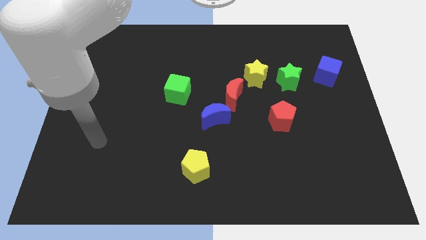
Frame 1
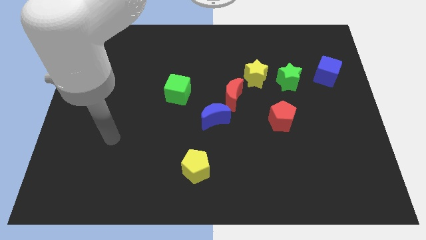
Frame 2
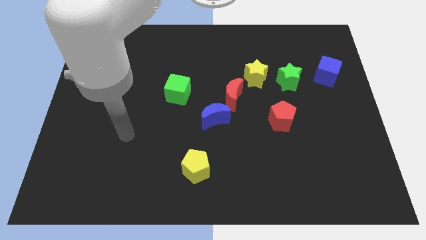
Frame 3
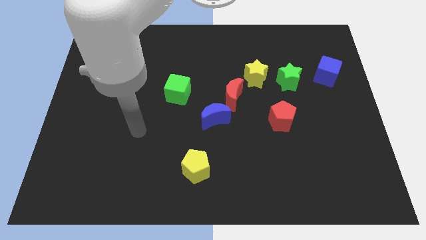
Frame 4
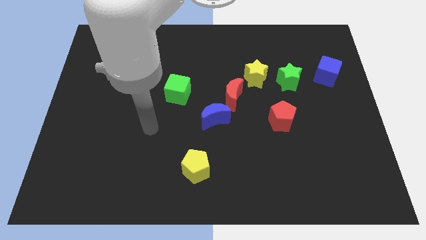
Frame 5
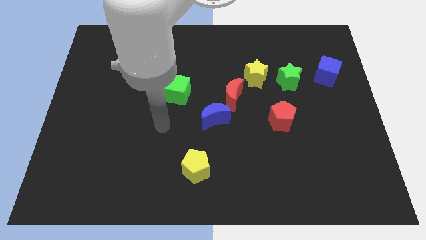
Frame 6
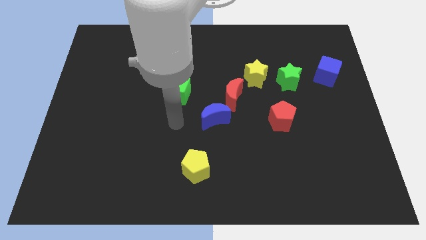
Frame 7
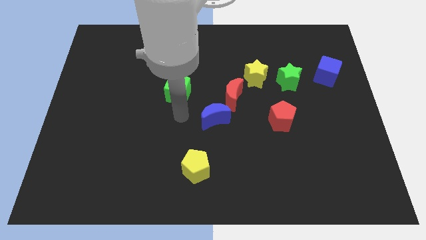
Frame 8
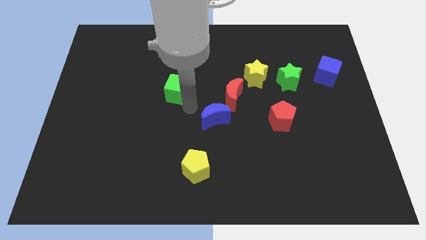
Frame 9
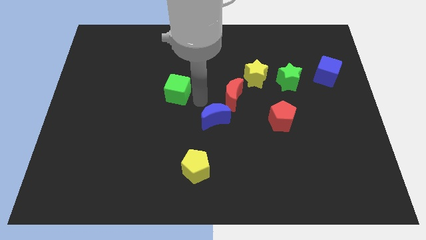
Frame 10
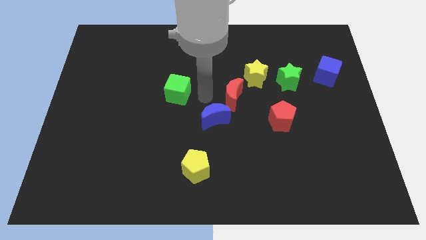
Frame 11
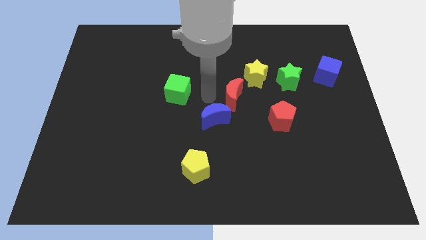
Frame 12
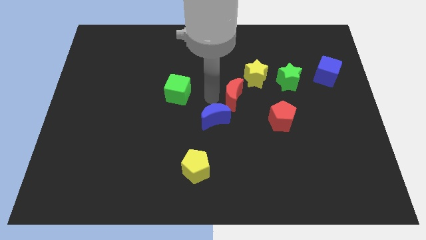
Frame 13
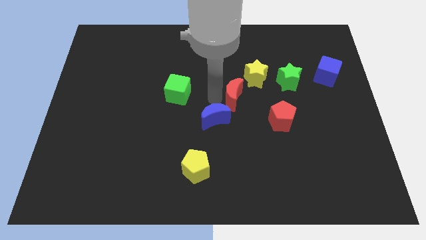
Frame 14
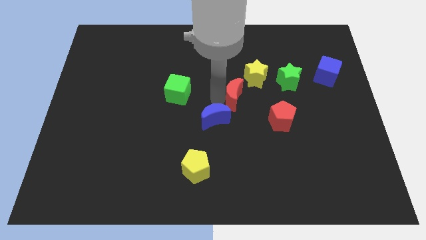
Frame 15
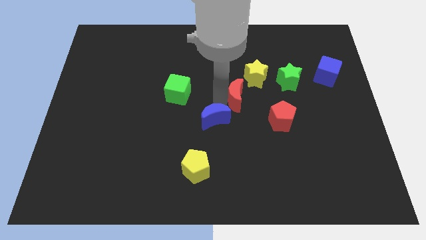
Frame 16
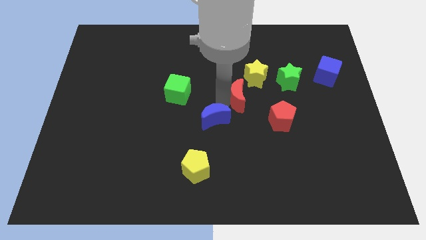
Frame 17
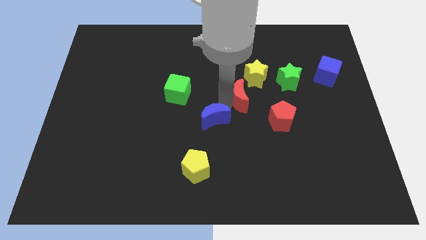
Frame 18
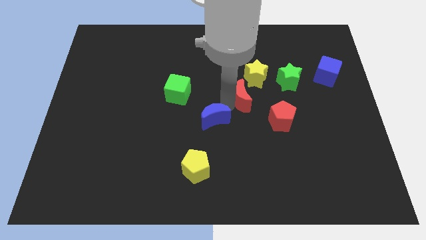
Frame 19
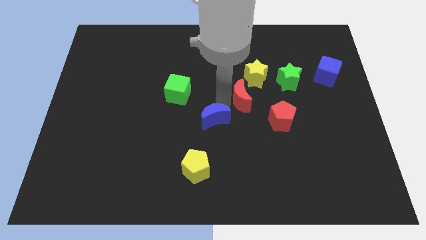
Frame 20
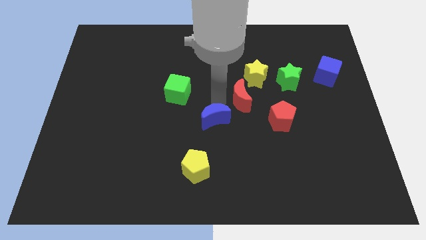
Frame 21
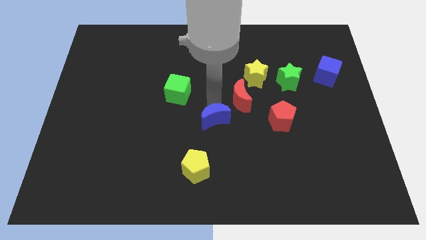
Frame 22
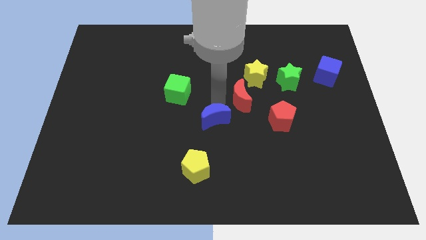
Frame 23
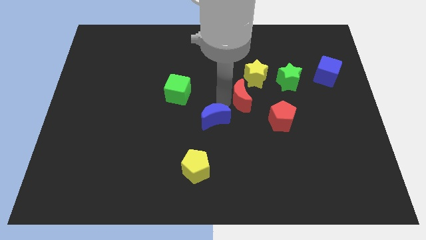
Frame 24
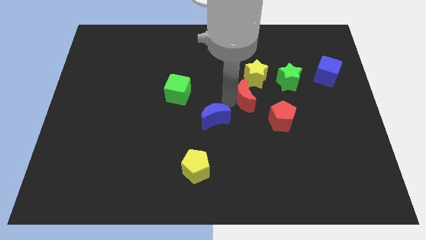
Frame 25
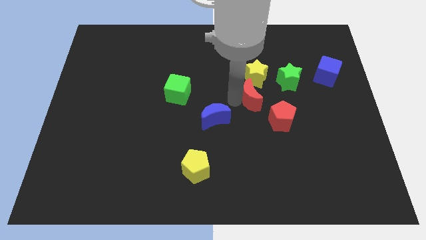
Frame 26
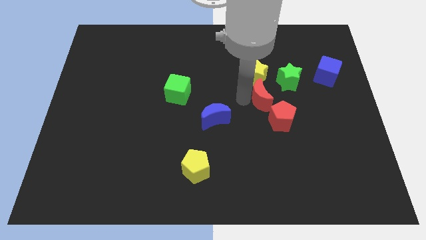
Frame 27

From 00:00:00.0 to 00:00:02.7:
move the red moon a little to the right

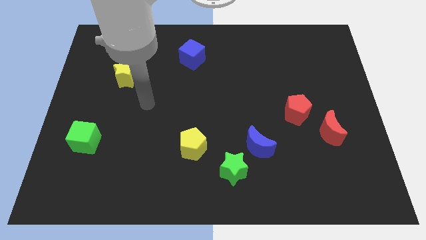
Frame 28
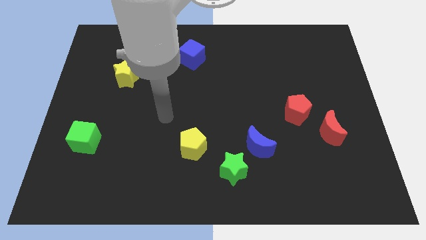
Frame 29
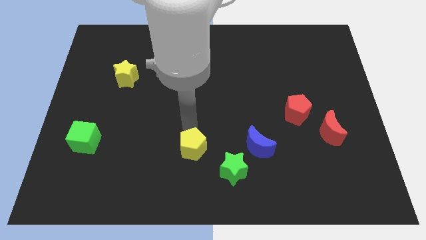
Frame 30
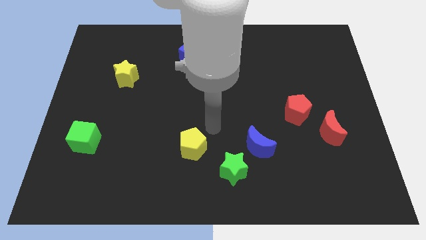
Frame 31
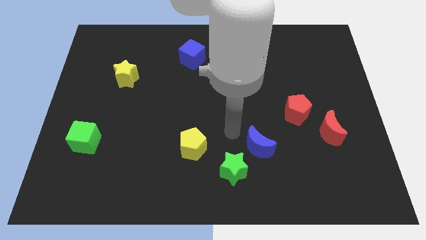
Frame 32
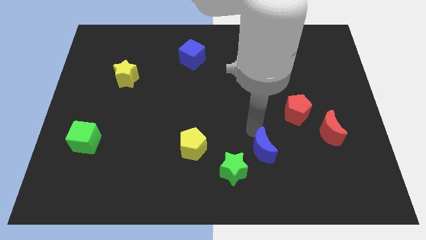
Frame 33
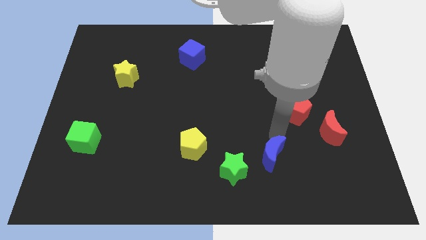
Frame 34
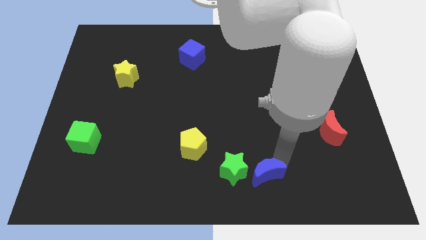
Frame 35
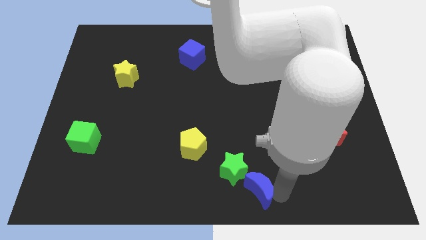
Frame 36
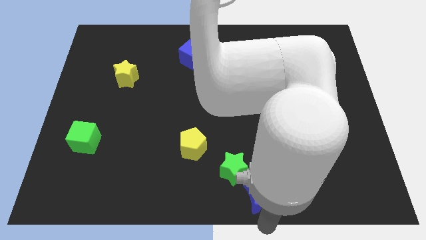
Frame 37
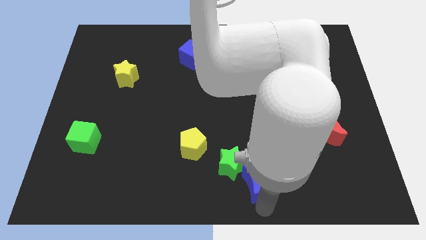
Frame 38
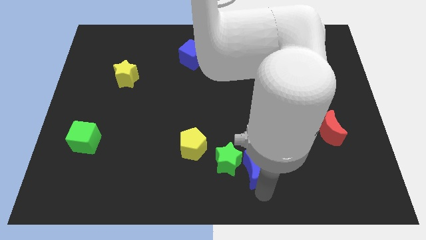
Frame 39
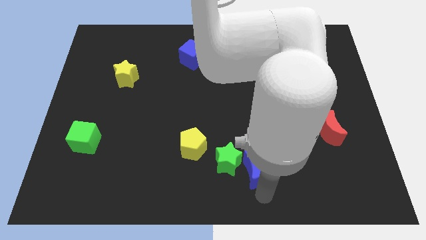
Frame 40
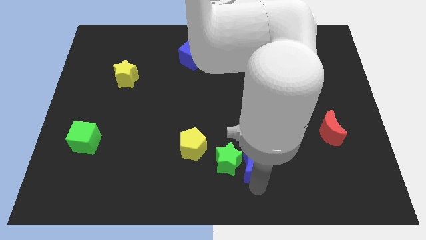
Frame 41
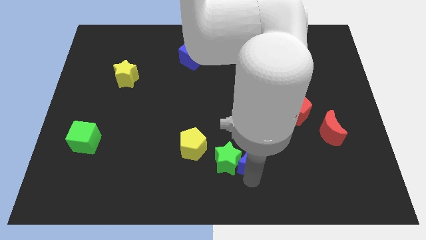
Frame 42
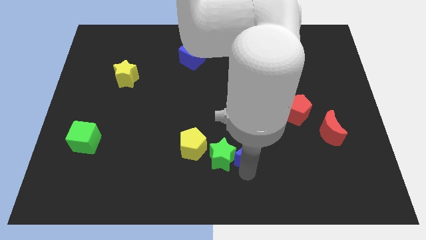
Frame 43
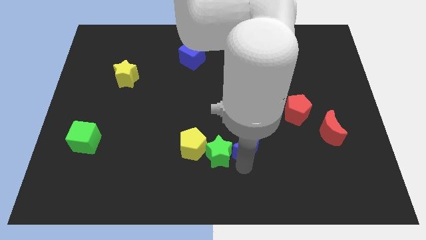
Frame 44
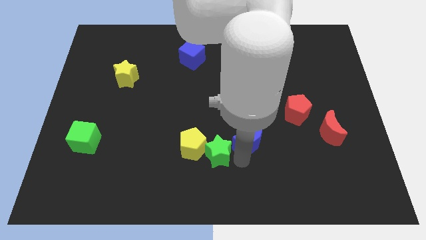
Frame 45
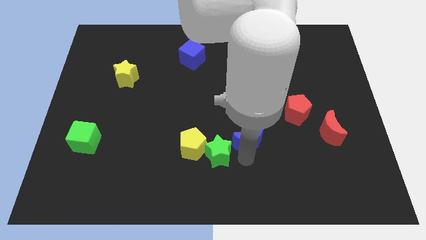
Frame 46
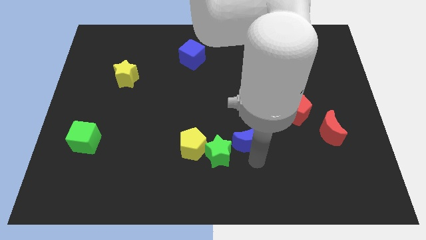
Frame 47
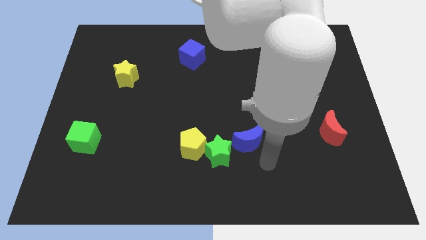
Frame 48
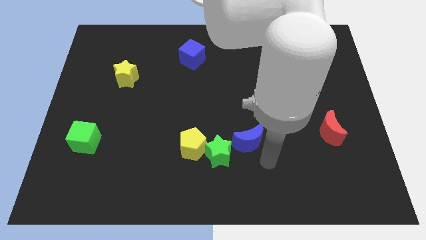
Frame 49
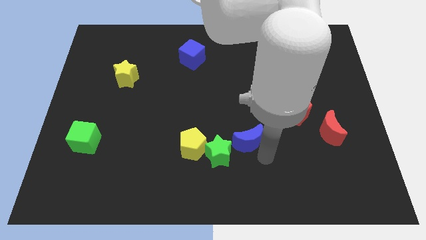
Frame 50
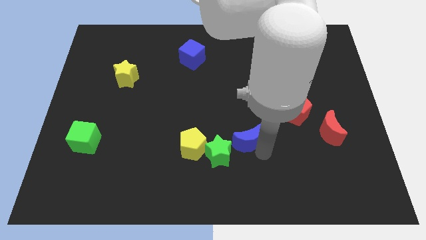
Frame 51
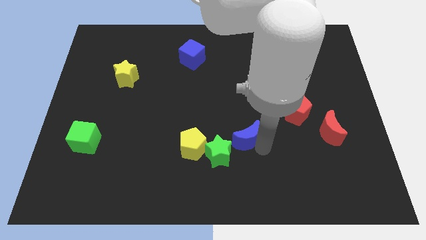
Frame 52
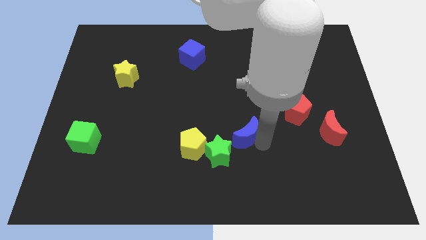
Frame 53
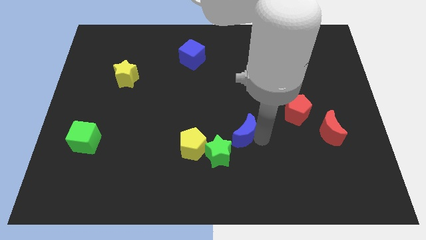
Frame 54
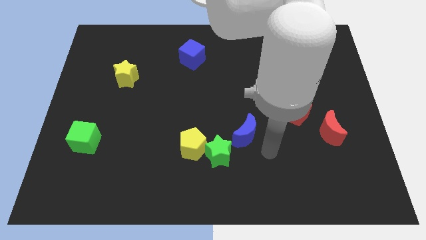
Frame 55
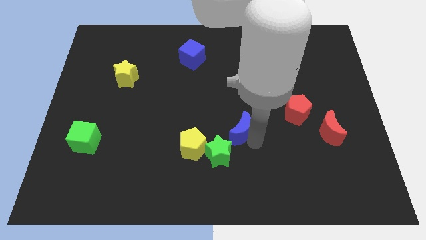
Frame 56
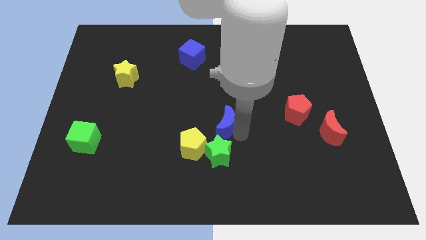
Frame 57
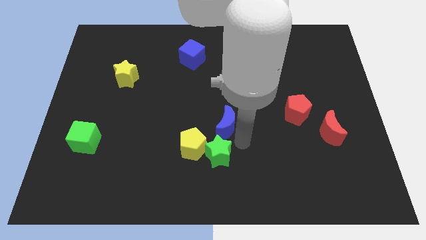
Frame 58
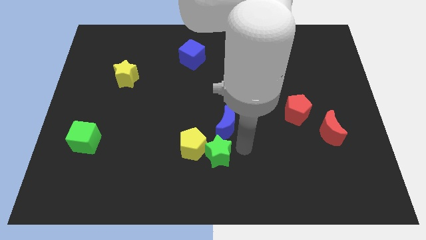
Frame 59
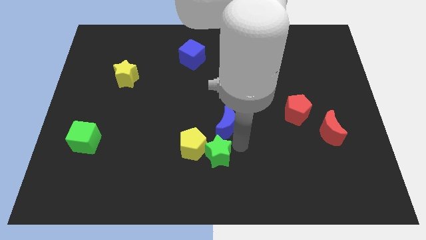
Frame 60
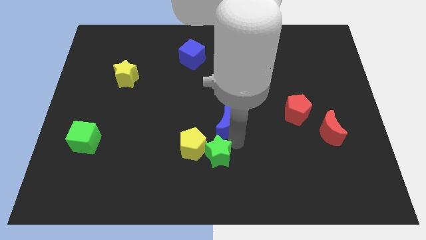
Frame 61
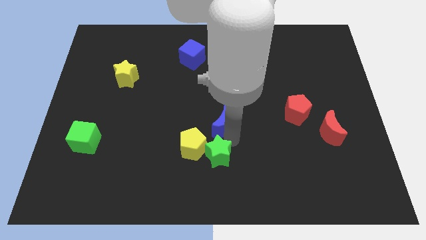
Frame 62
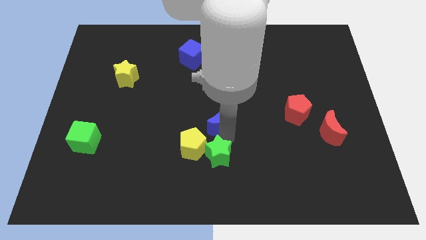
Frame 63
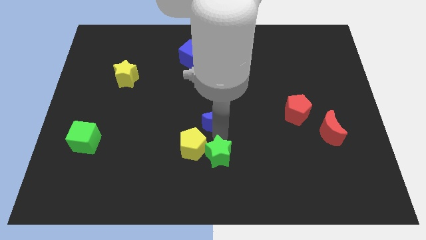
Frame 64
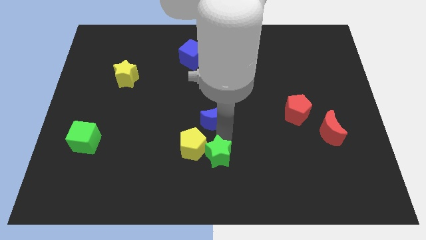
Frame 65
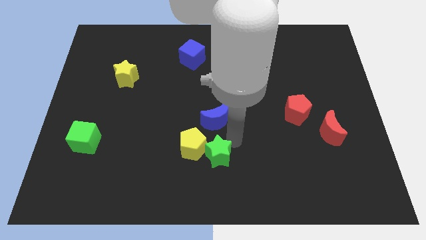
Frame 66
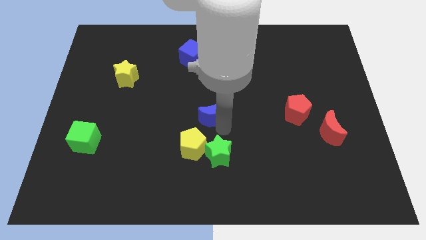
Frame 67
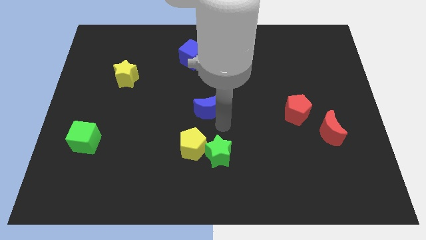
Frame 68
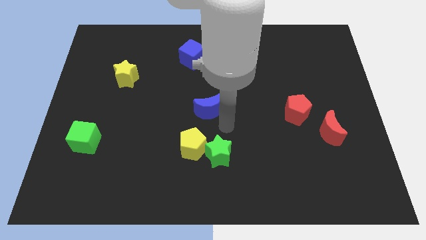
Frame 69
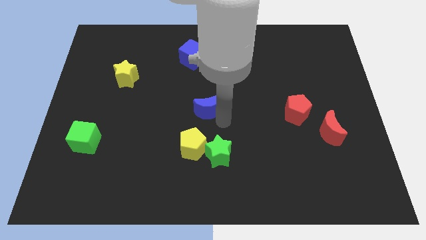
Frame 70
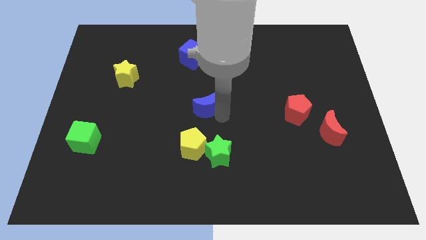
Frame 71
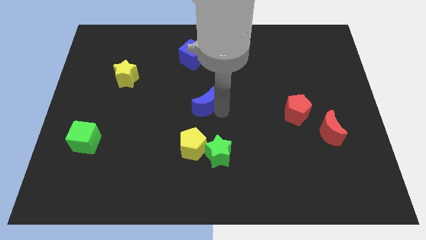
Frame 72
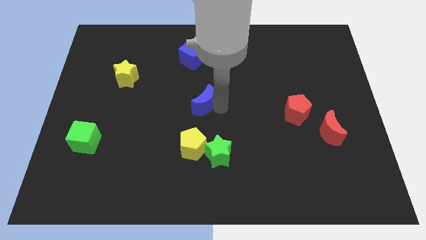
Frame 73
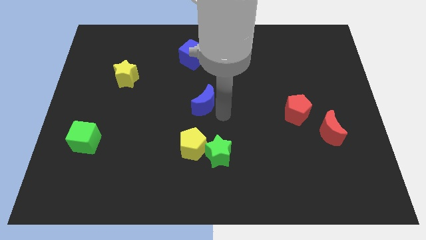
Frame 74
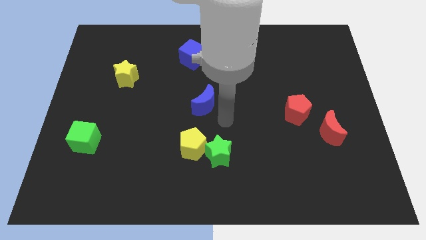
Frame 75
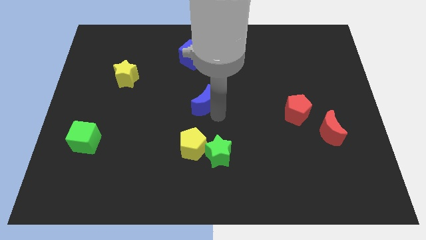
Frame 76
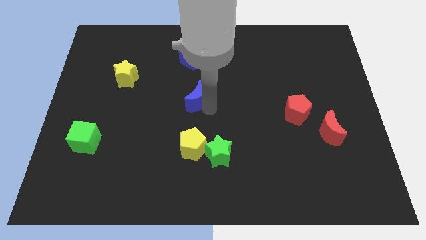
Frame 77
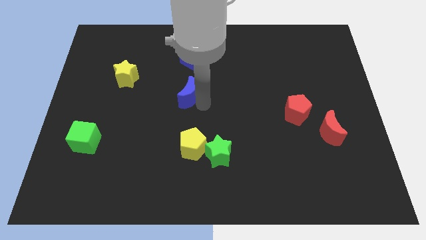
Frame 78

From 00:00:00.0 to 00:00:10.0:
slide the blue moon up and to the left
